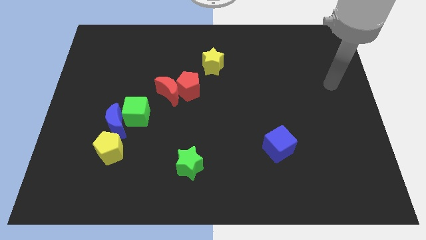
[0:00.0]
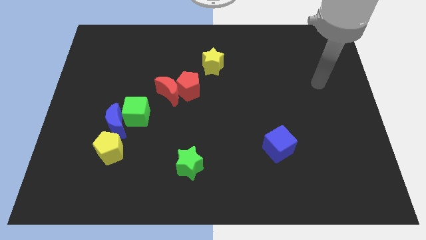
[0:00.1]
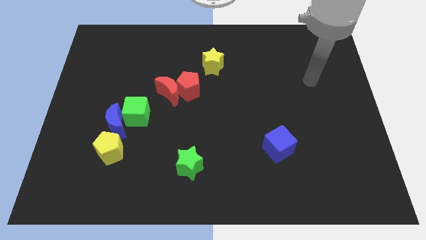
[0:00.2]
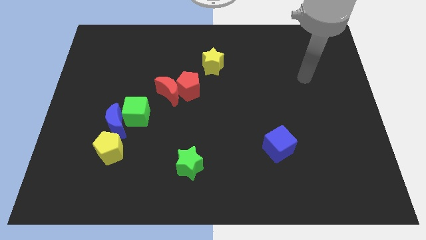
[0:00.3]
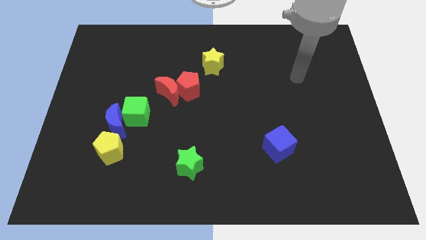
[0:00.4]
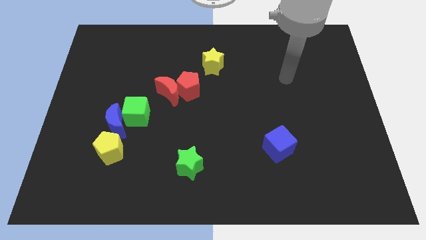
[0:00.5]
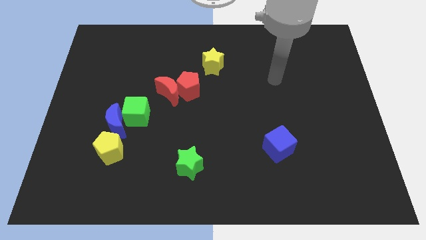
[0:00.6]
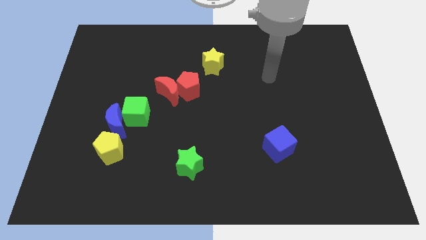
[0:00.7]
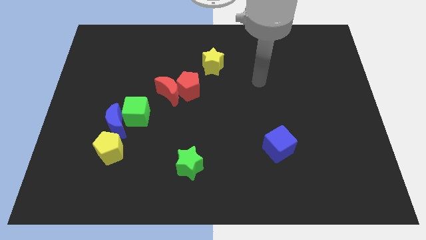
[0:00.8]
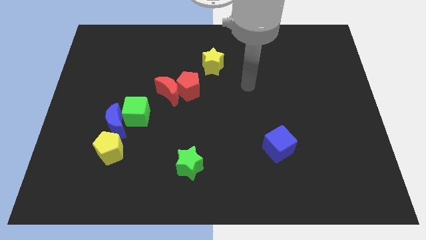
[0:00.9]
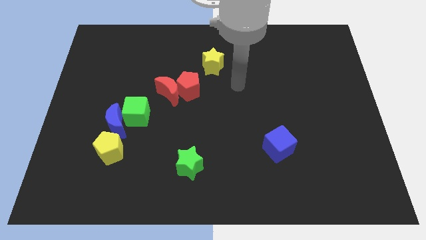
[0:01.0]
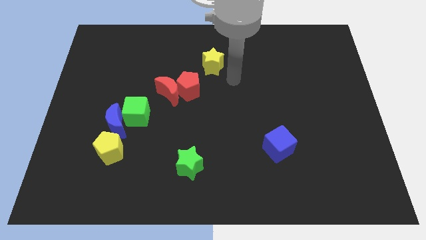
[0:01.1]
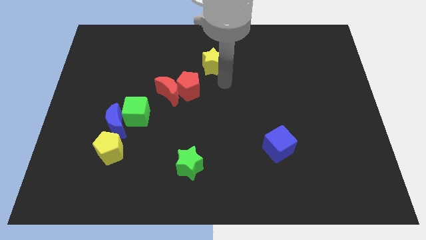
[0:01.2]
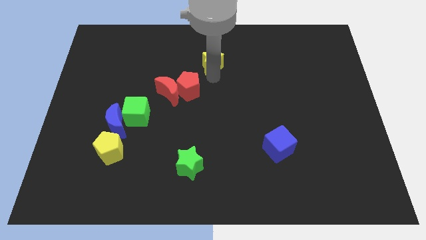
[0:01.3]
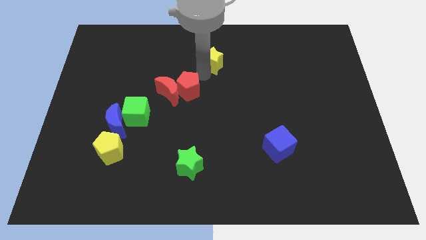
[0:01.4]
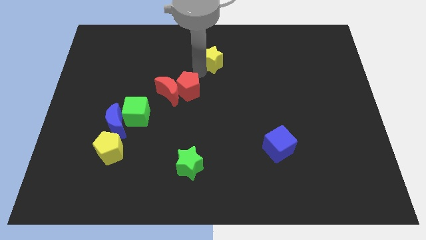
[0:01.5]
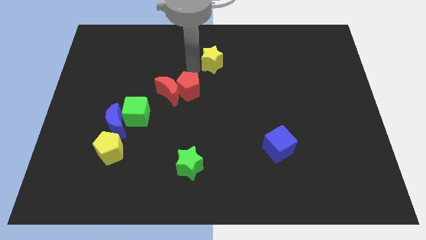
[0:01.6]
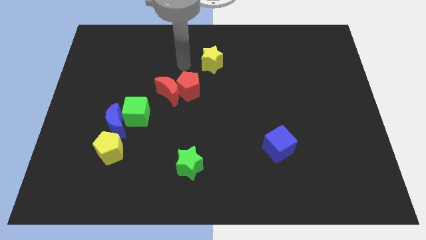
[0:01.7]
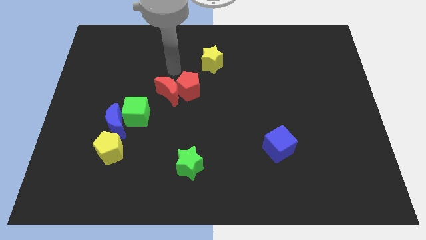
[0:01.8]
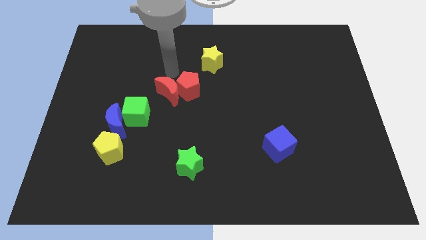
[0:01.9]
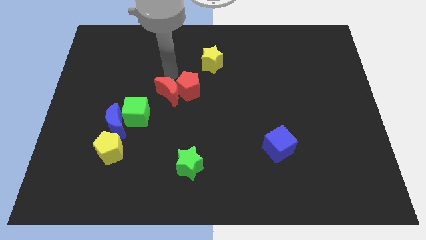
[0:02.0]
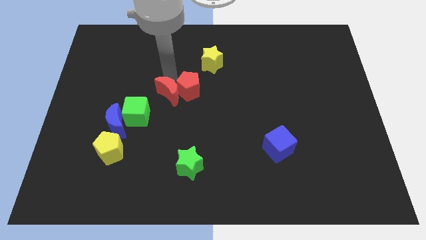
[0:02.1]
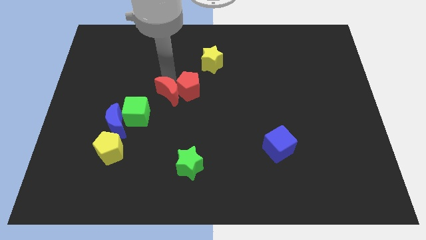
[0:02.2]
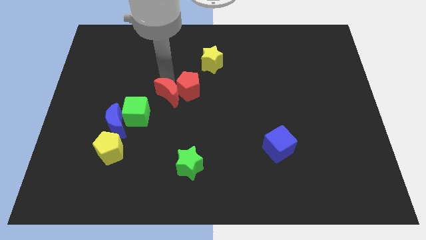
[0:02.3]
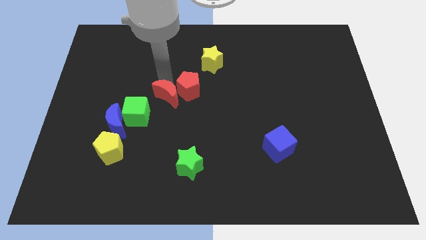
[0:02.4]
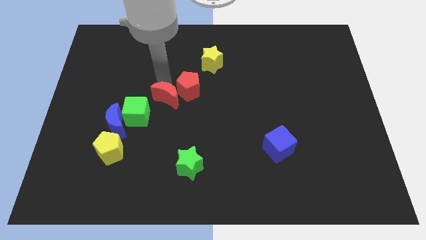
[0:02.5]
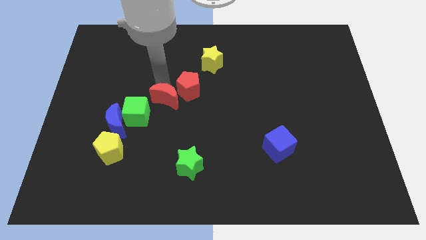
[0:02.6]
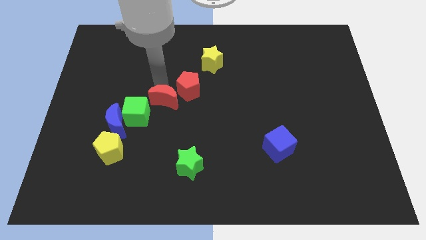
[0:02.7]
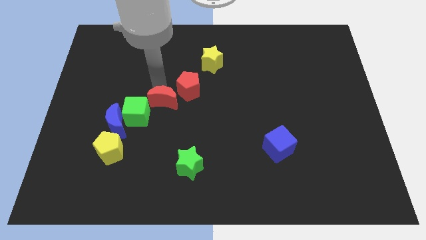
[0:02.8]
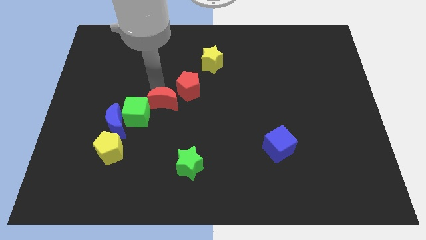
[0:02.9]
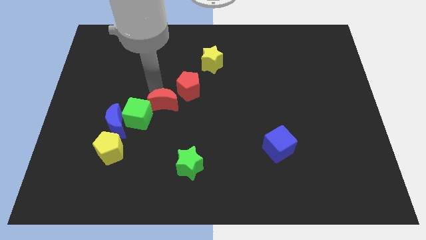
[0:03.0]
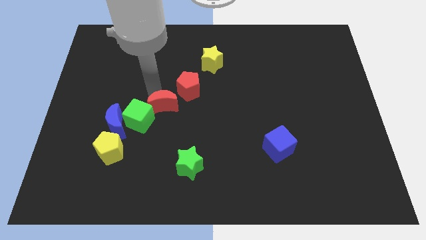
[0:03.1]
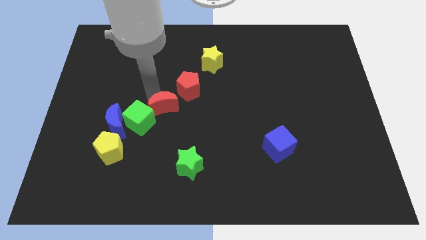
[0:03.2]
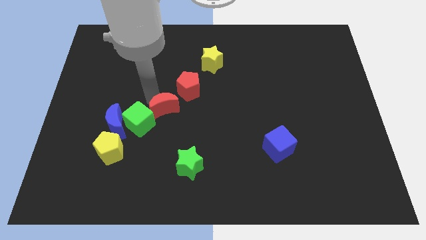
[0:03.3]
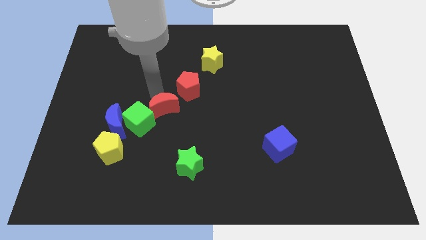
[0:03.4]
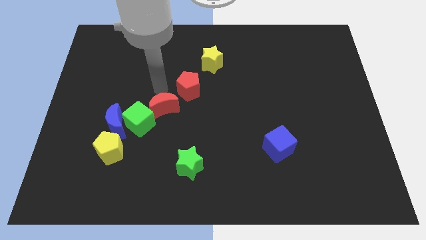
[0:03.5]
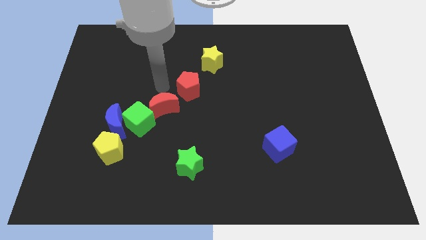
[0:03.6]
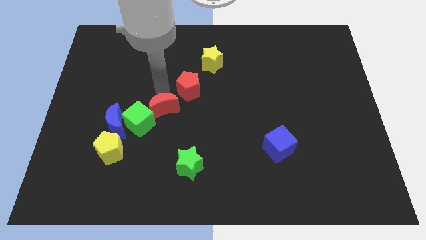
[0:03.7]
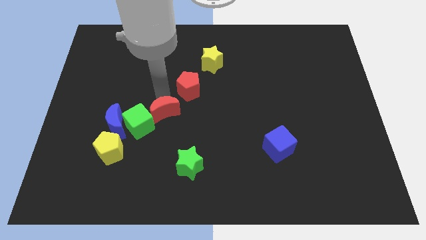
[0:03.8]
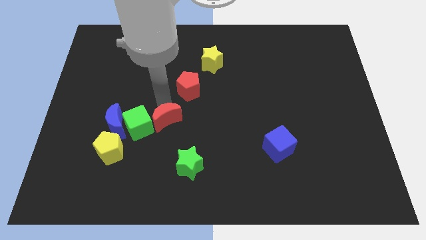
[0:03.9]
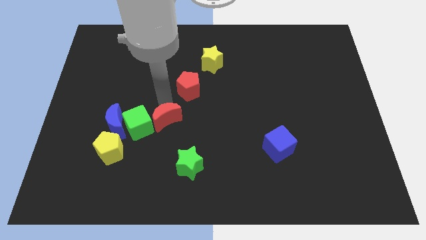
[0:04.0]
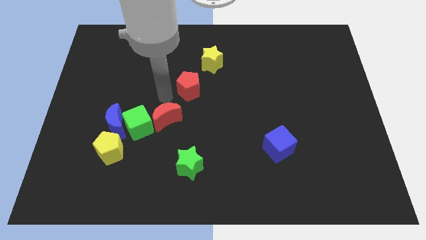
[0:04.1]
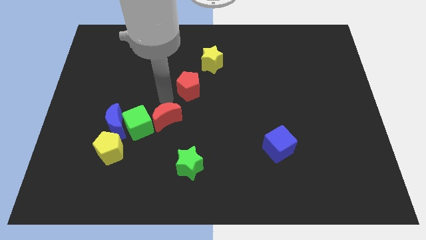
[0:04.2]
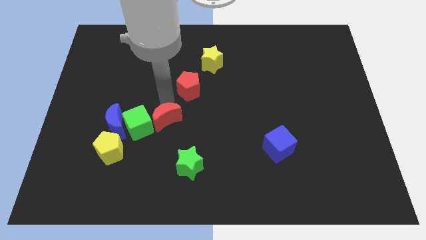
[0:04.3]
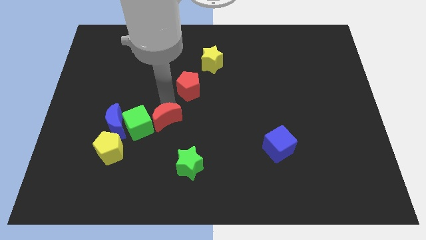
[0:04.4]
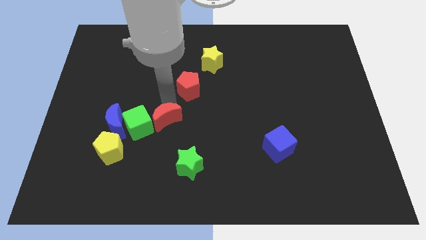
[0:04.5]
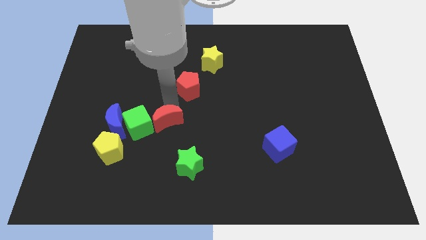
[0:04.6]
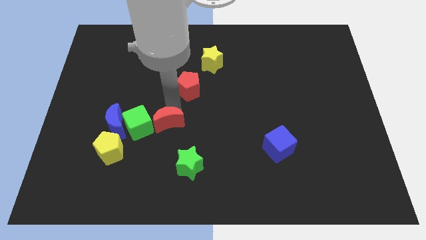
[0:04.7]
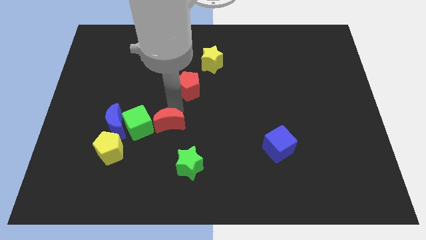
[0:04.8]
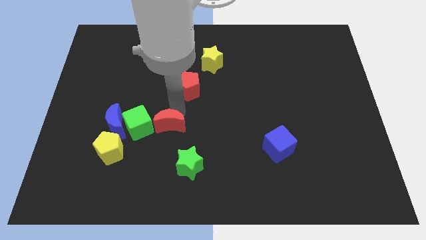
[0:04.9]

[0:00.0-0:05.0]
push the red moon to the top left side of the green star

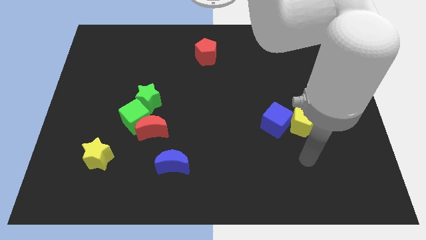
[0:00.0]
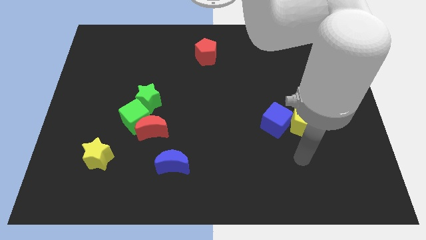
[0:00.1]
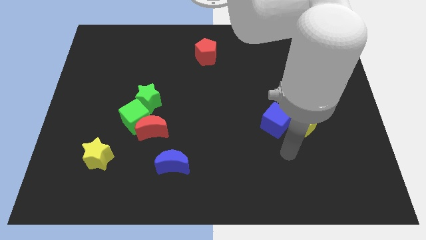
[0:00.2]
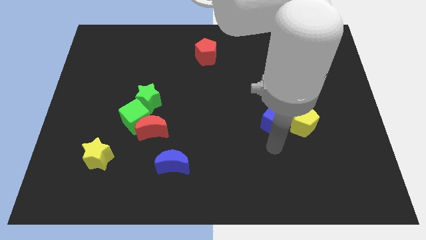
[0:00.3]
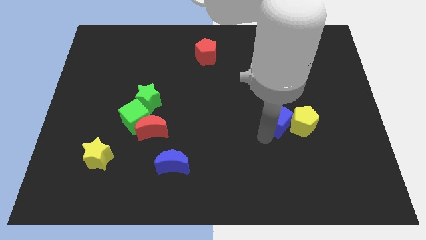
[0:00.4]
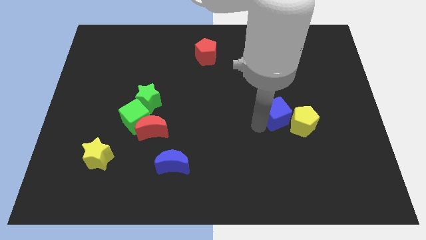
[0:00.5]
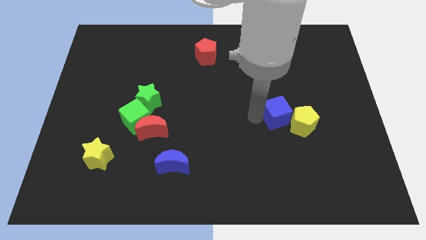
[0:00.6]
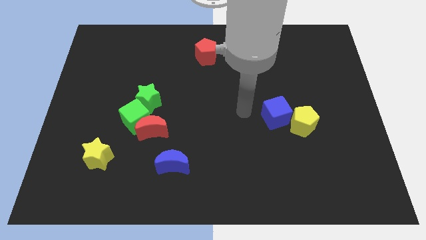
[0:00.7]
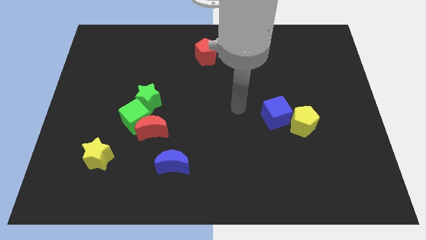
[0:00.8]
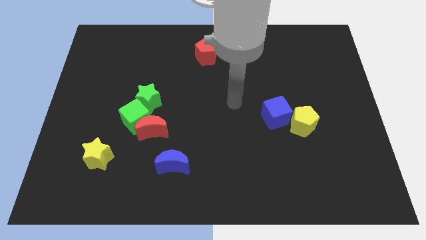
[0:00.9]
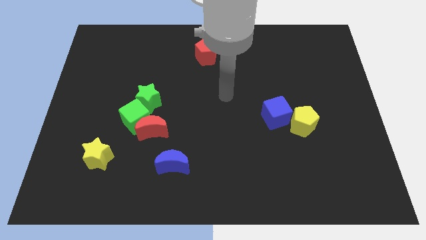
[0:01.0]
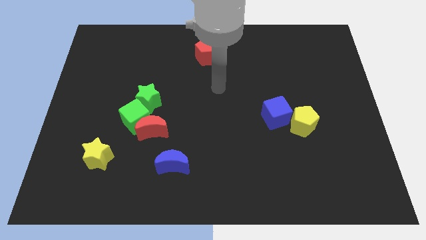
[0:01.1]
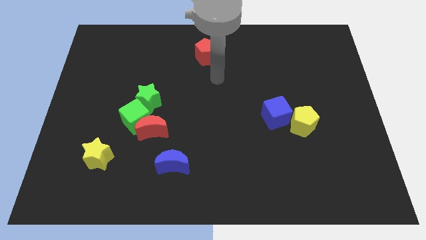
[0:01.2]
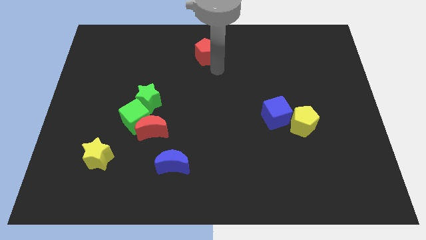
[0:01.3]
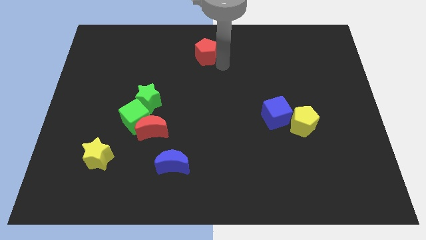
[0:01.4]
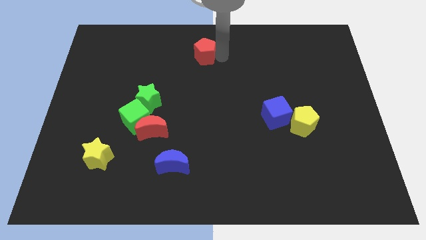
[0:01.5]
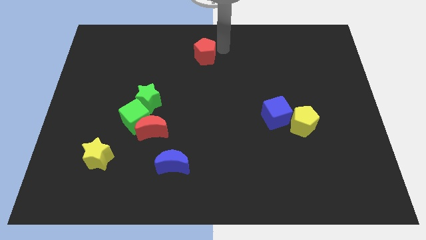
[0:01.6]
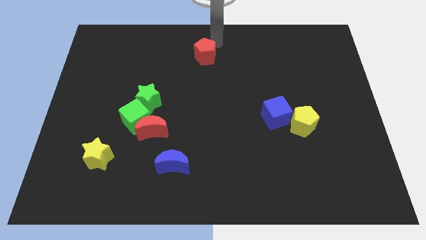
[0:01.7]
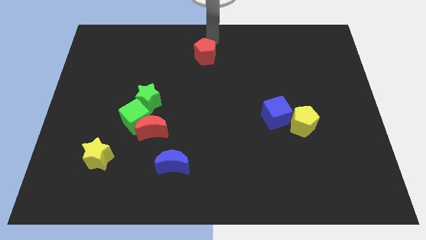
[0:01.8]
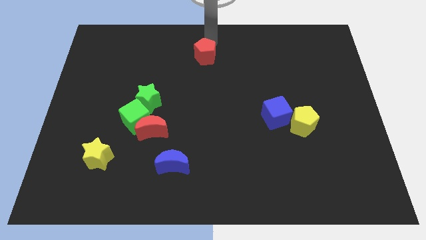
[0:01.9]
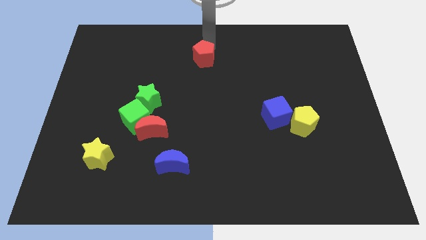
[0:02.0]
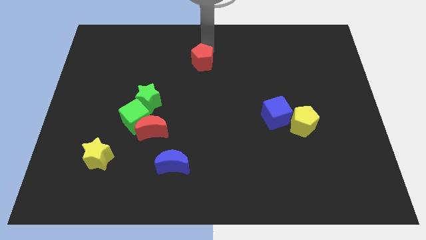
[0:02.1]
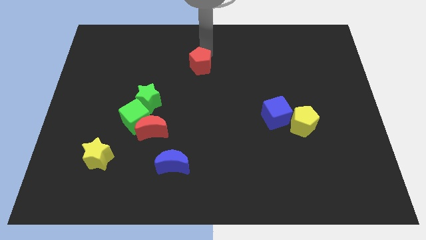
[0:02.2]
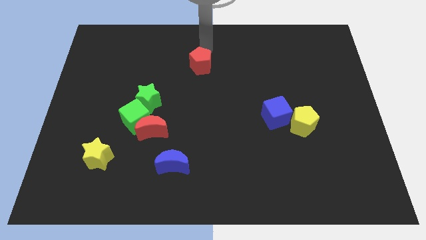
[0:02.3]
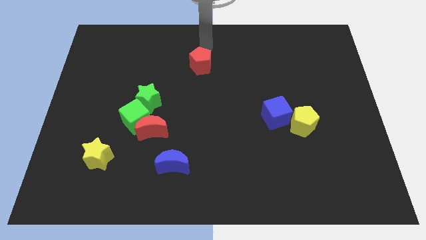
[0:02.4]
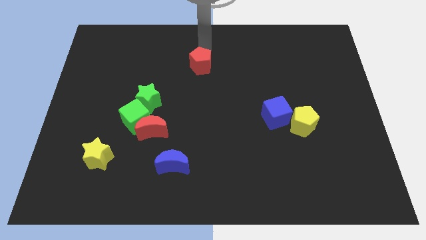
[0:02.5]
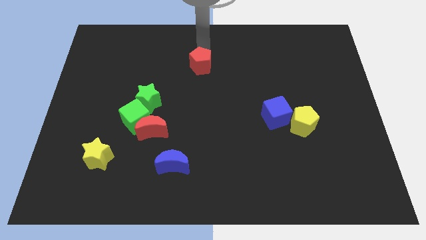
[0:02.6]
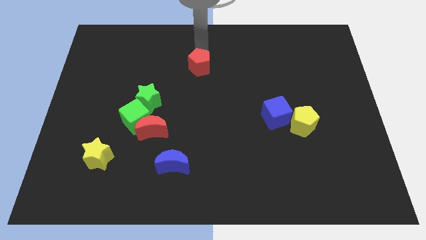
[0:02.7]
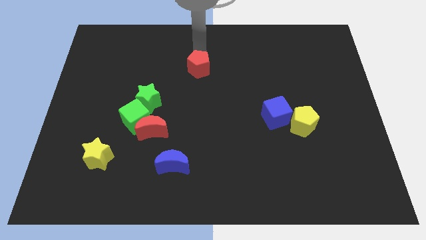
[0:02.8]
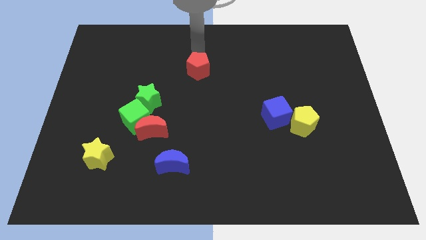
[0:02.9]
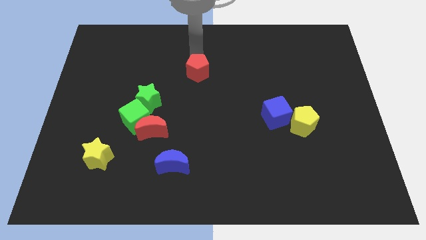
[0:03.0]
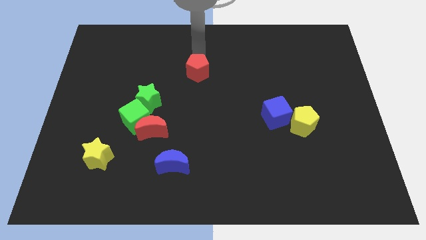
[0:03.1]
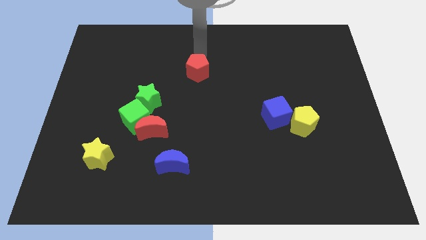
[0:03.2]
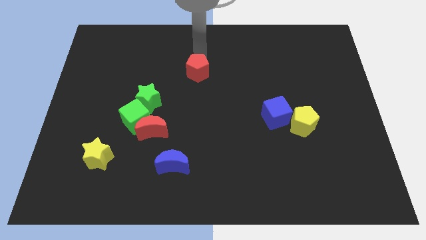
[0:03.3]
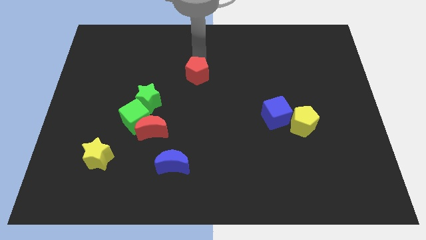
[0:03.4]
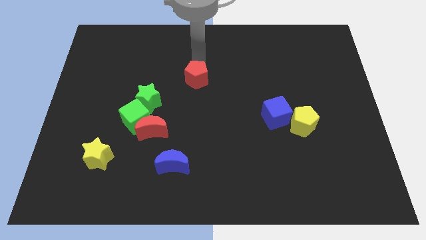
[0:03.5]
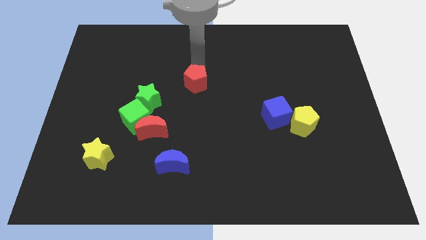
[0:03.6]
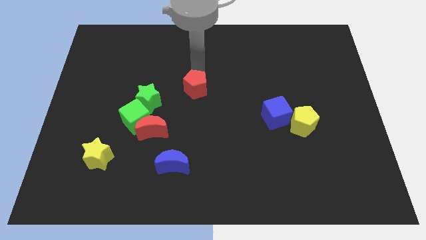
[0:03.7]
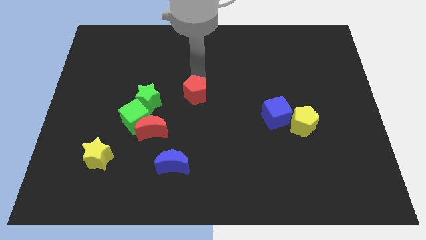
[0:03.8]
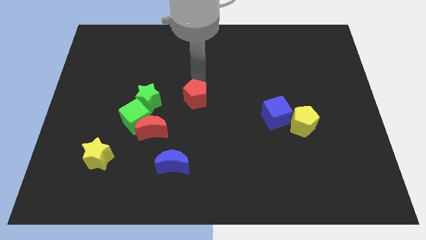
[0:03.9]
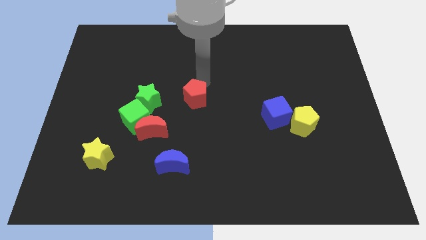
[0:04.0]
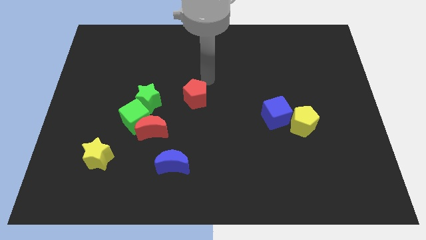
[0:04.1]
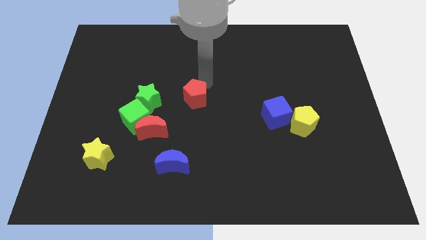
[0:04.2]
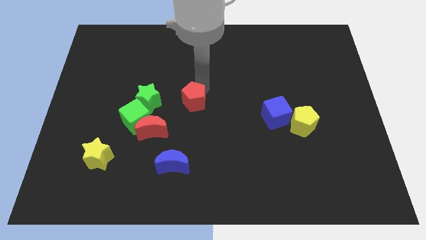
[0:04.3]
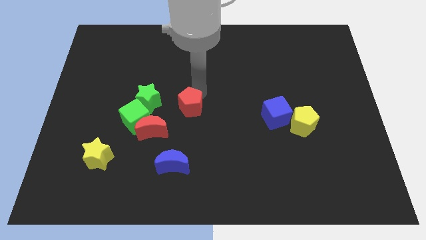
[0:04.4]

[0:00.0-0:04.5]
put the red pentagon just right of the green cube
